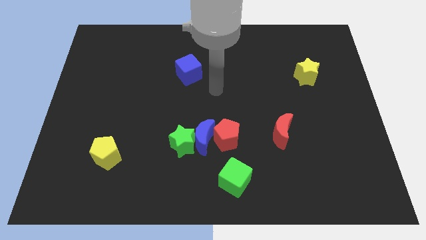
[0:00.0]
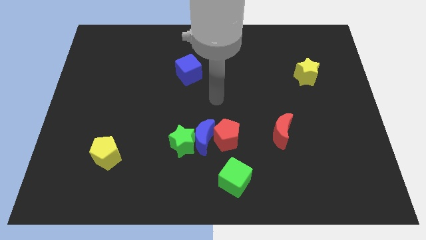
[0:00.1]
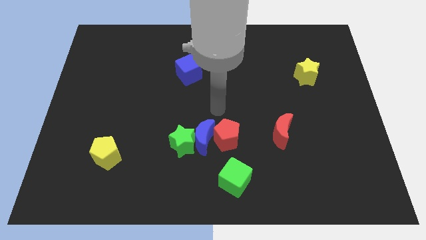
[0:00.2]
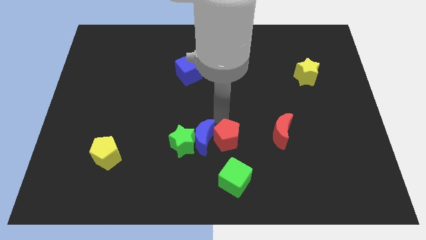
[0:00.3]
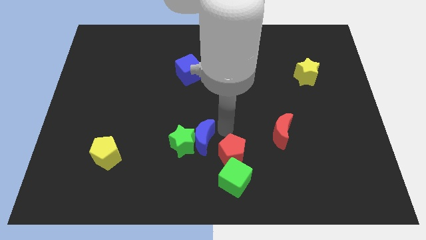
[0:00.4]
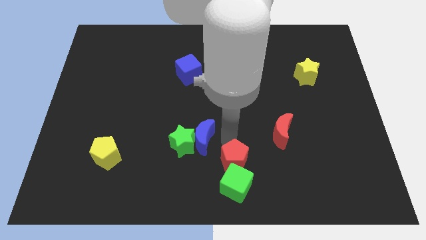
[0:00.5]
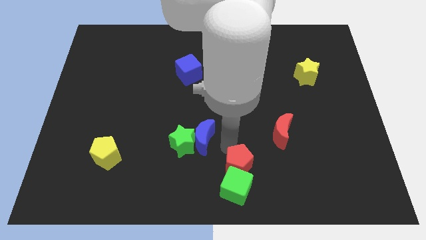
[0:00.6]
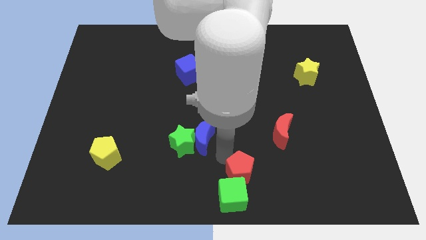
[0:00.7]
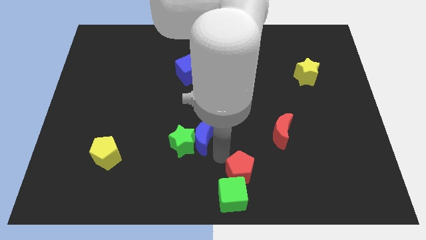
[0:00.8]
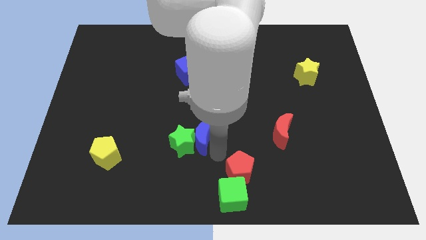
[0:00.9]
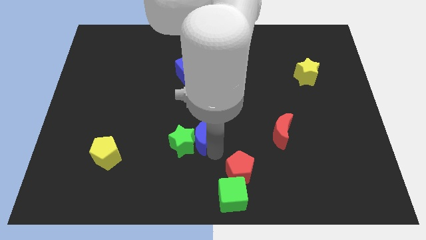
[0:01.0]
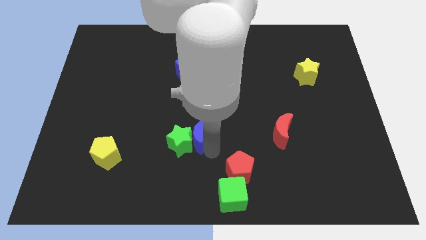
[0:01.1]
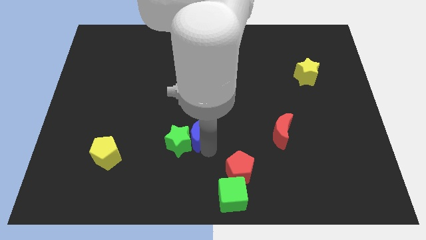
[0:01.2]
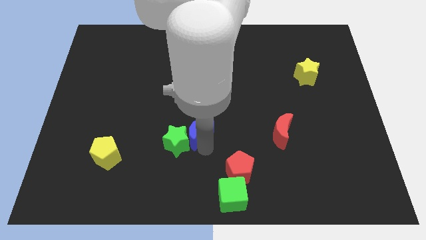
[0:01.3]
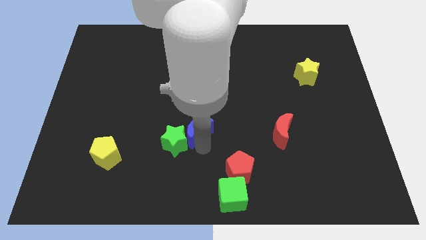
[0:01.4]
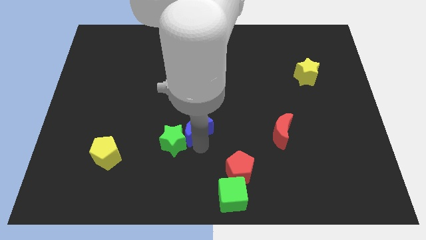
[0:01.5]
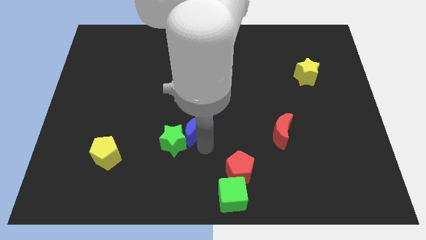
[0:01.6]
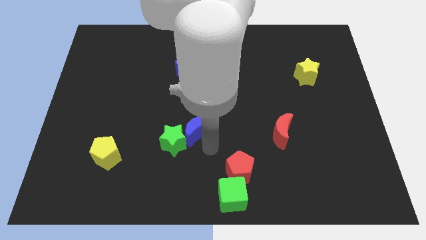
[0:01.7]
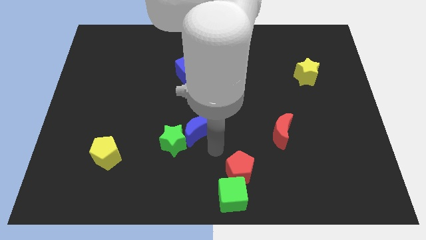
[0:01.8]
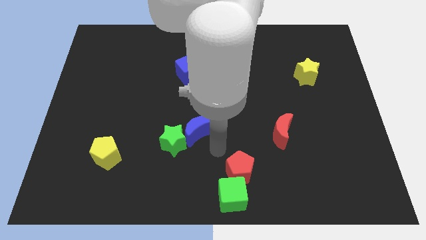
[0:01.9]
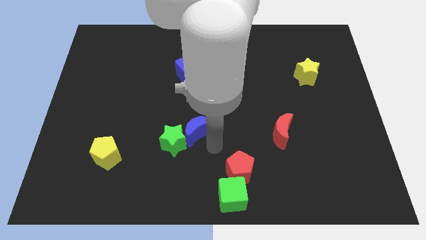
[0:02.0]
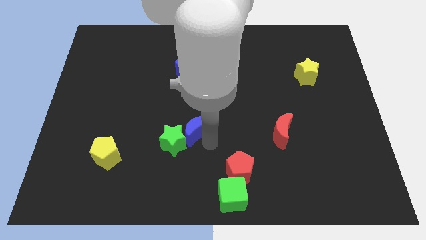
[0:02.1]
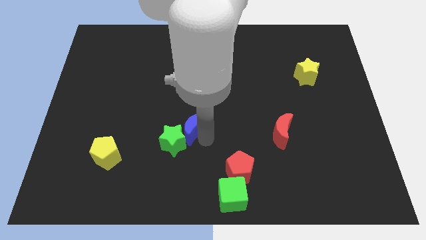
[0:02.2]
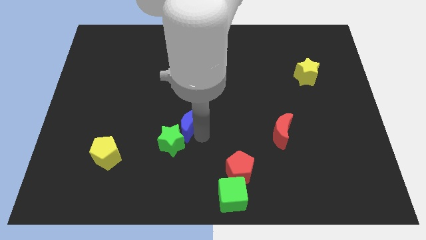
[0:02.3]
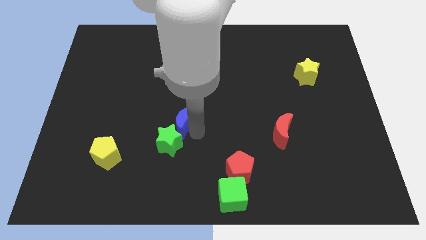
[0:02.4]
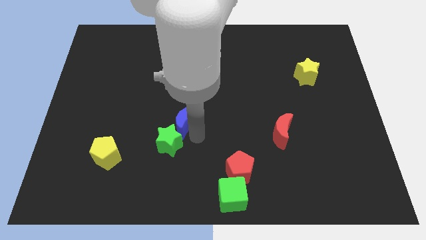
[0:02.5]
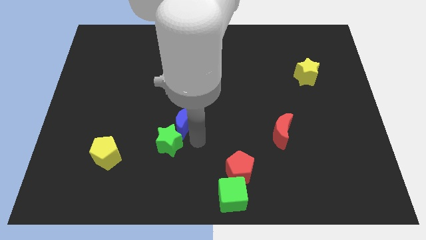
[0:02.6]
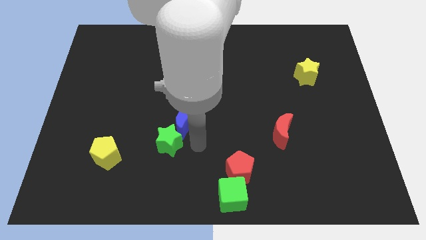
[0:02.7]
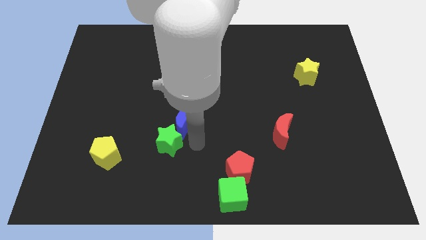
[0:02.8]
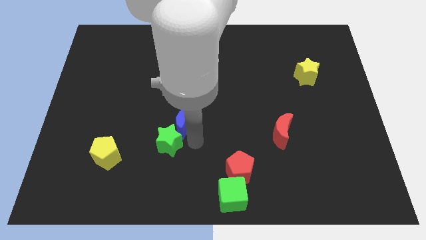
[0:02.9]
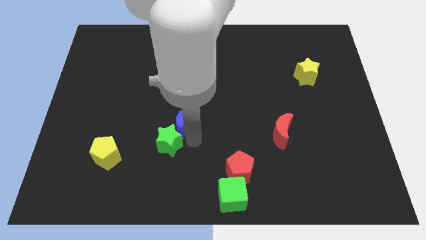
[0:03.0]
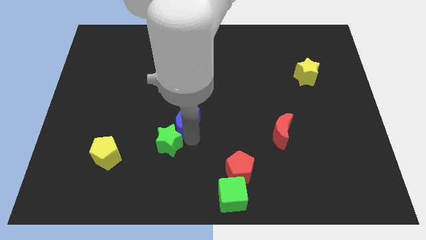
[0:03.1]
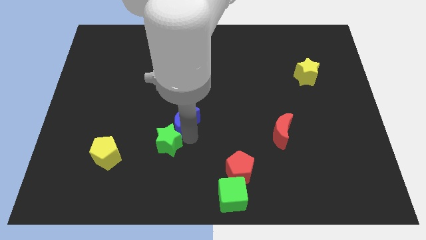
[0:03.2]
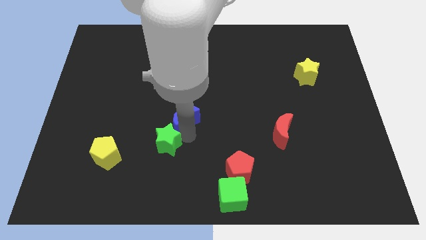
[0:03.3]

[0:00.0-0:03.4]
separate the blue moon from the green star and red pentagon

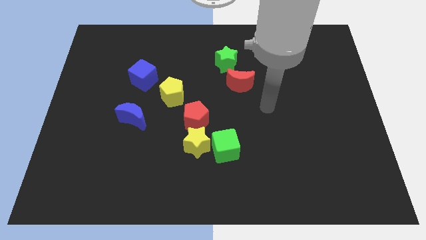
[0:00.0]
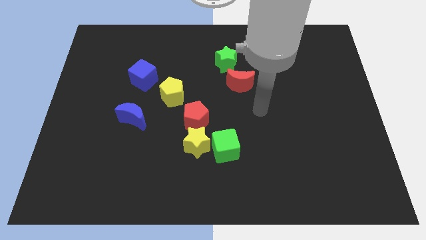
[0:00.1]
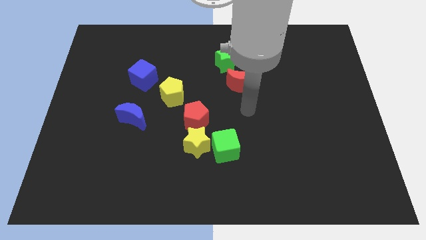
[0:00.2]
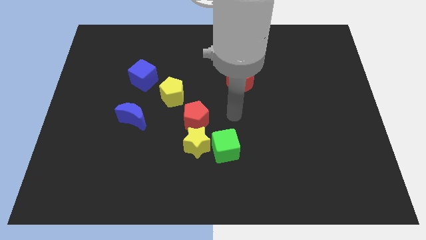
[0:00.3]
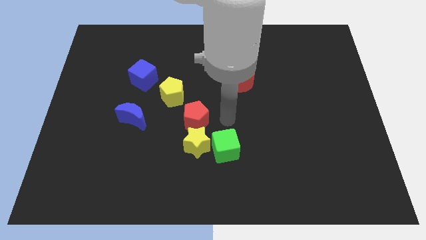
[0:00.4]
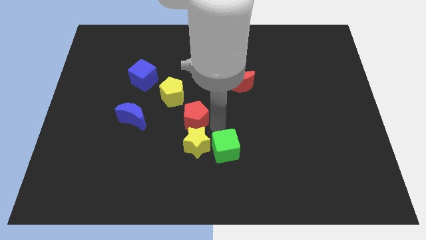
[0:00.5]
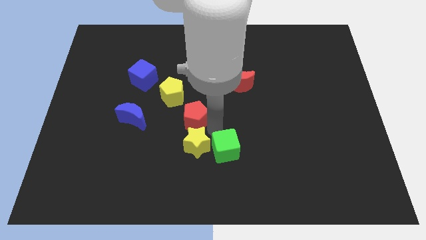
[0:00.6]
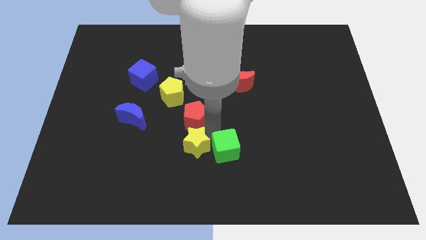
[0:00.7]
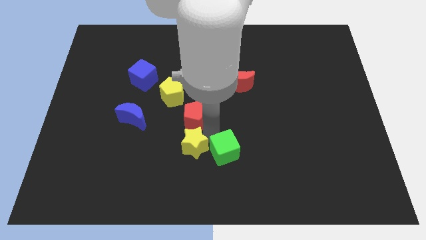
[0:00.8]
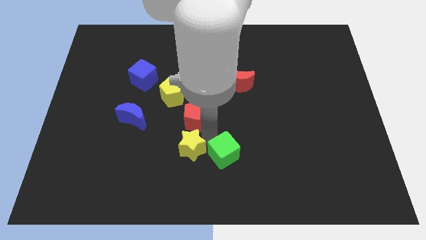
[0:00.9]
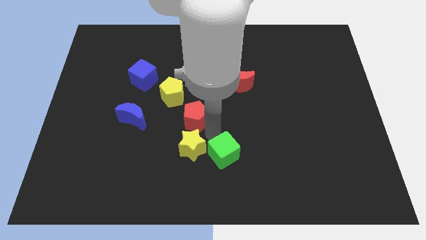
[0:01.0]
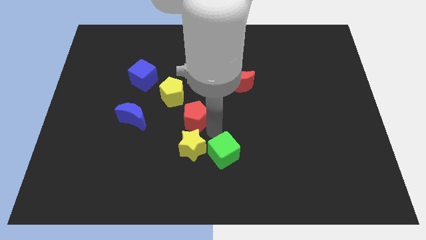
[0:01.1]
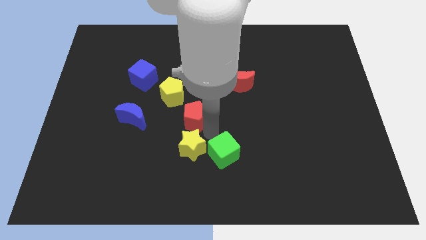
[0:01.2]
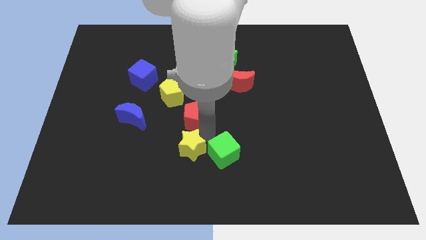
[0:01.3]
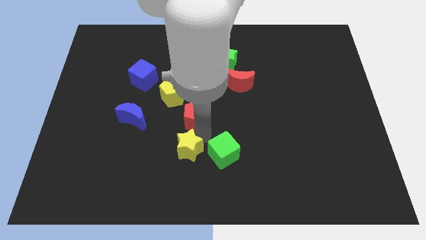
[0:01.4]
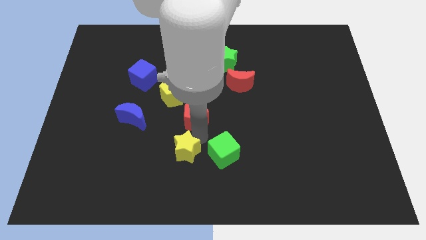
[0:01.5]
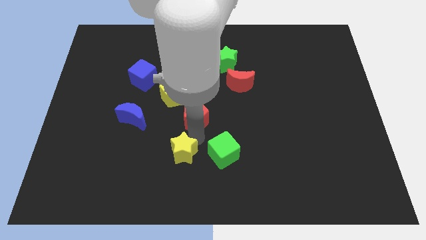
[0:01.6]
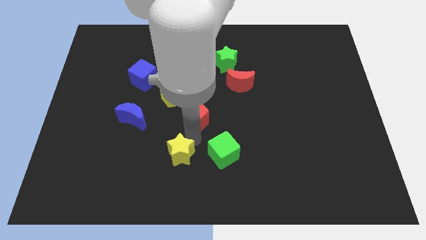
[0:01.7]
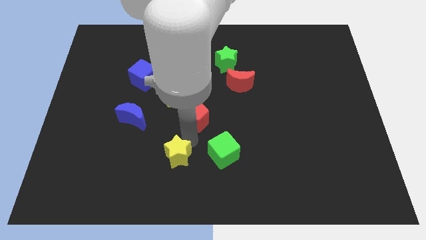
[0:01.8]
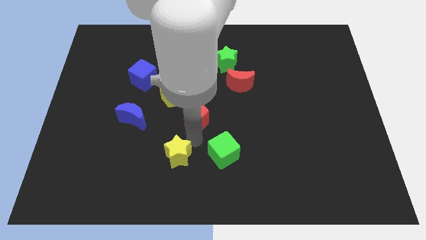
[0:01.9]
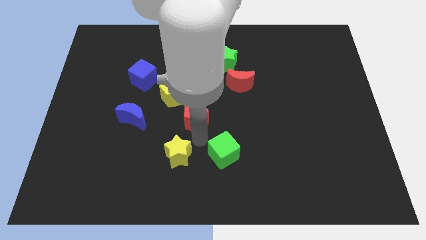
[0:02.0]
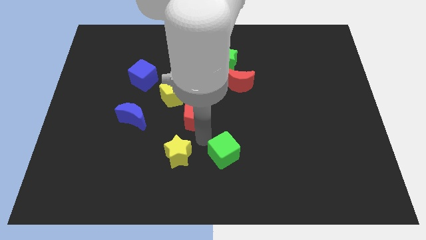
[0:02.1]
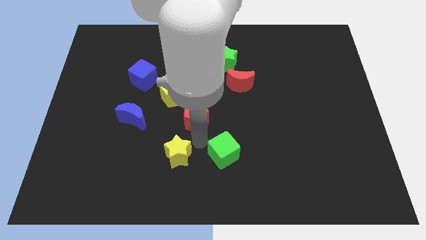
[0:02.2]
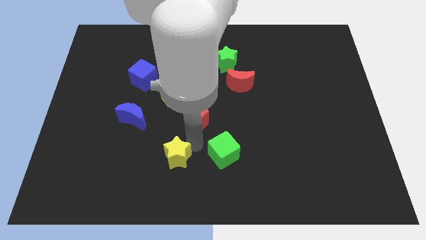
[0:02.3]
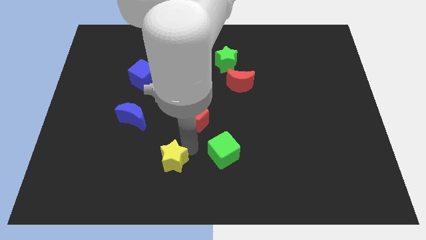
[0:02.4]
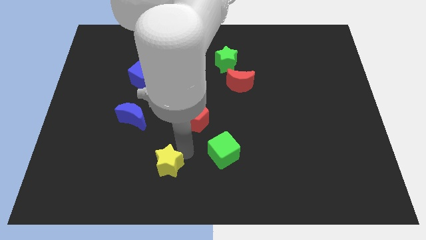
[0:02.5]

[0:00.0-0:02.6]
move the yellow star away from the green cube and red pentagon

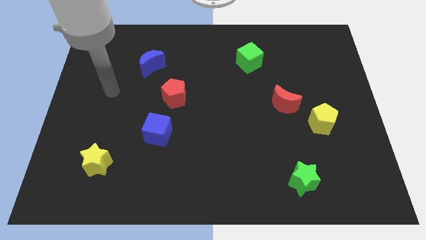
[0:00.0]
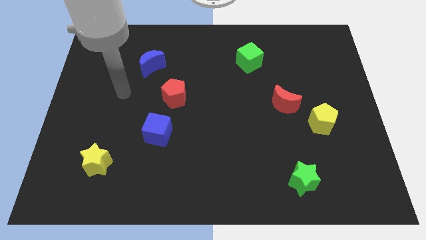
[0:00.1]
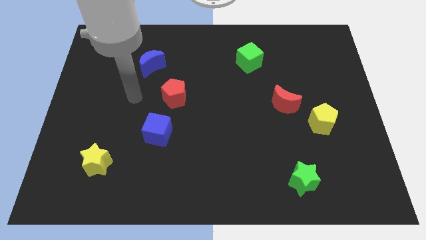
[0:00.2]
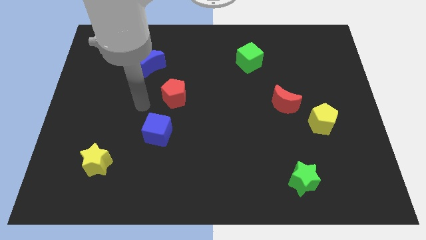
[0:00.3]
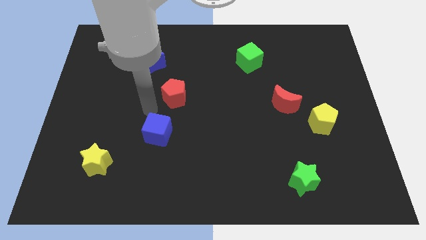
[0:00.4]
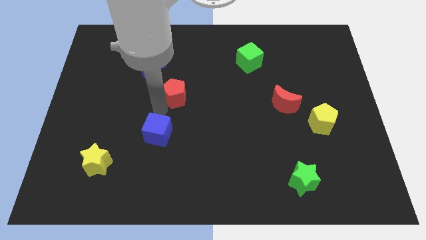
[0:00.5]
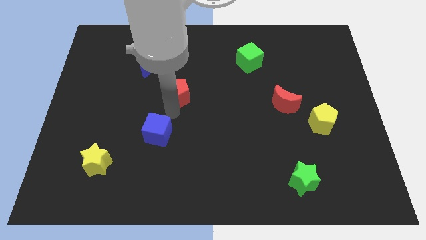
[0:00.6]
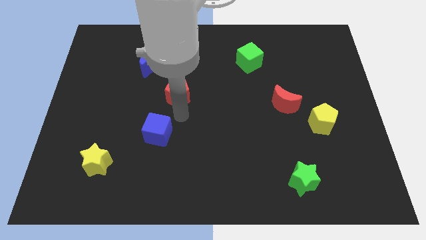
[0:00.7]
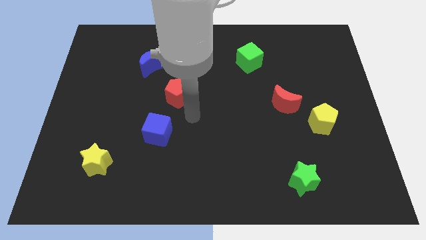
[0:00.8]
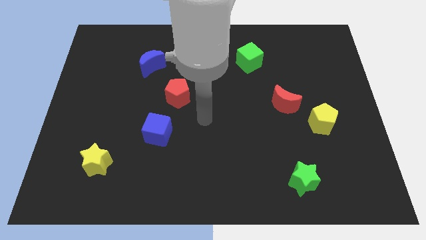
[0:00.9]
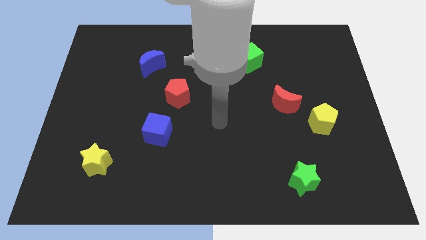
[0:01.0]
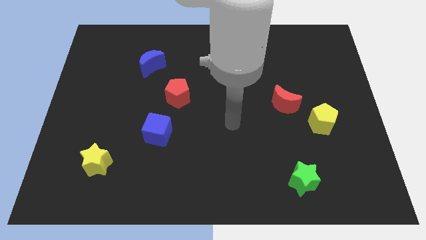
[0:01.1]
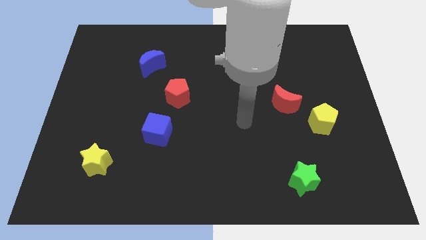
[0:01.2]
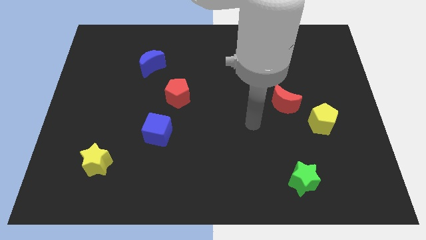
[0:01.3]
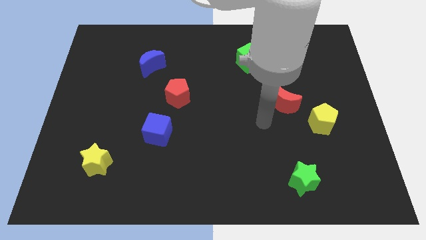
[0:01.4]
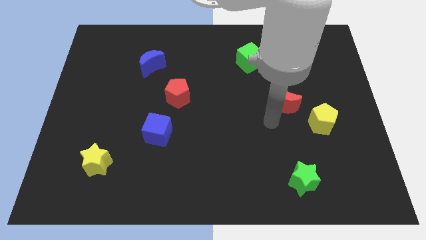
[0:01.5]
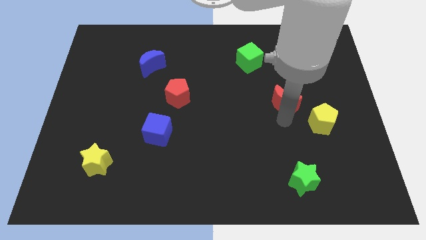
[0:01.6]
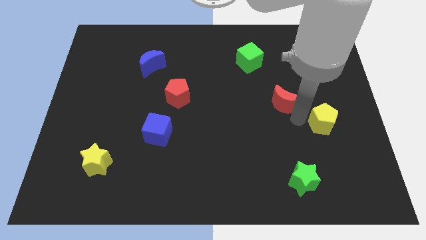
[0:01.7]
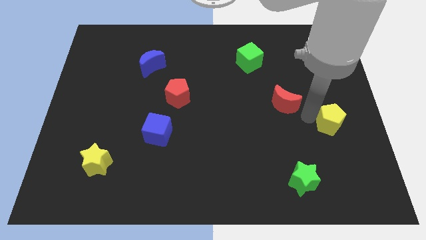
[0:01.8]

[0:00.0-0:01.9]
move the red moon away from the yellow pentagon

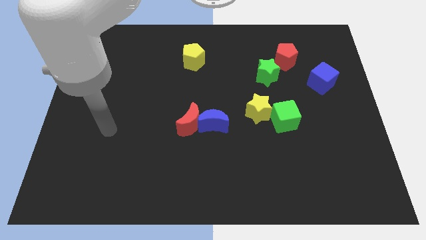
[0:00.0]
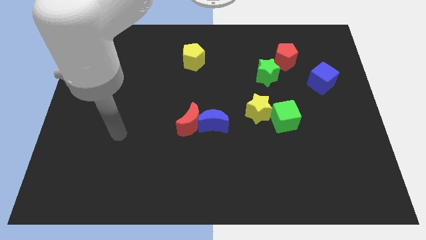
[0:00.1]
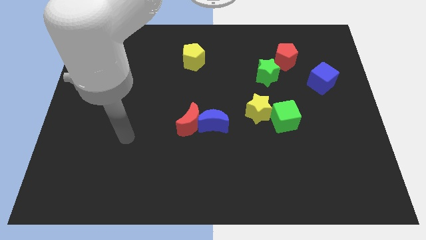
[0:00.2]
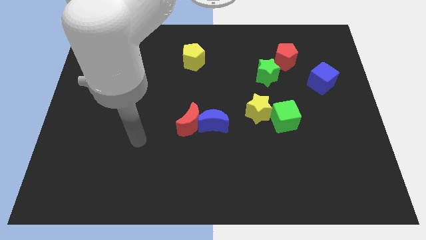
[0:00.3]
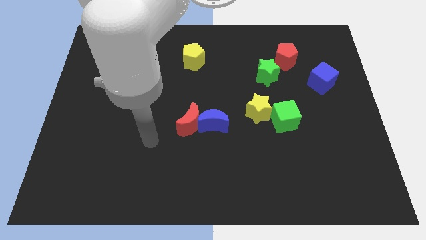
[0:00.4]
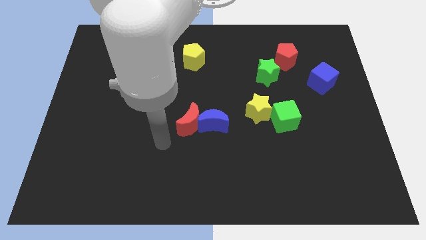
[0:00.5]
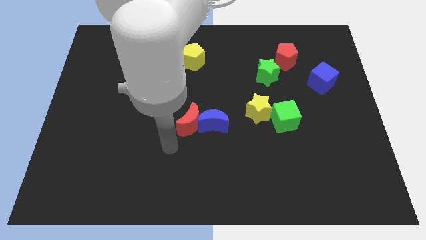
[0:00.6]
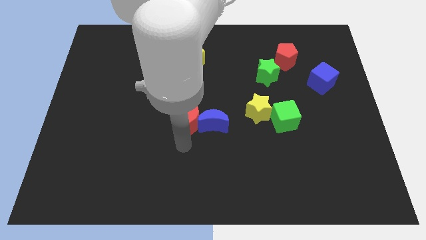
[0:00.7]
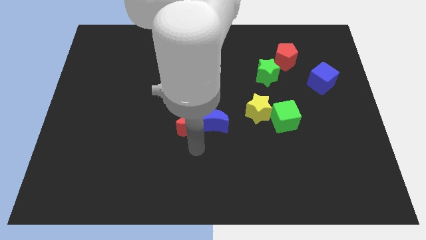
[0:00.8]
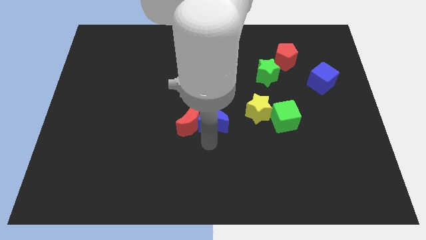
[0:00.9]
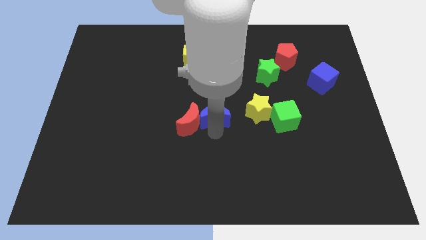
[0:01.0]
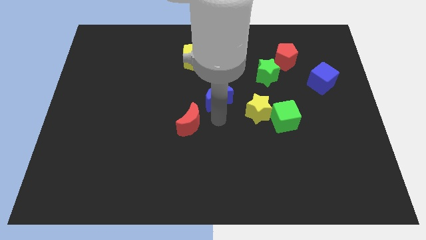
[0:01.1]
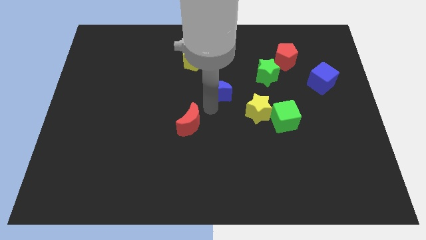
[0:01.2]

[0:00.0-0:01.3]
pull the red moon apart from the blue moon

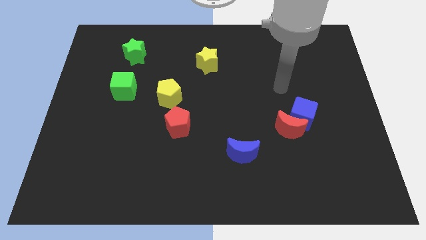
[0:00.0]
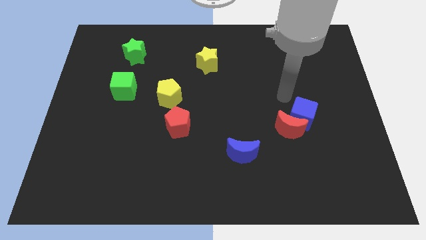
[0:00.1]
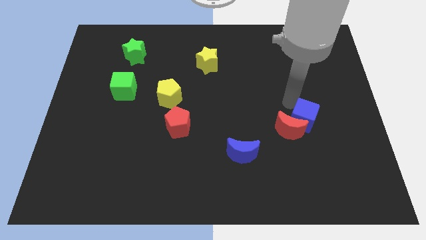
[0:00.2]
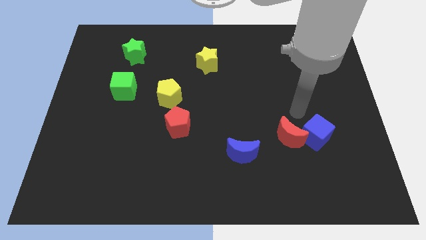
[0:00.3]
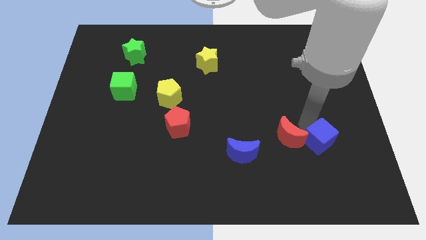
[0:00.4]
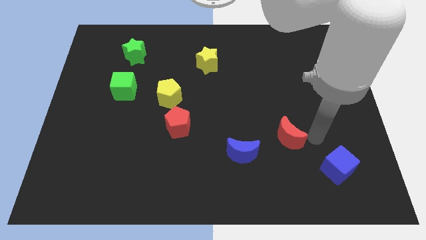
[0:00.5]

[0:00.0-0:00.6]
pull the red moon apart from the blue cube
